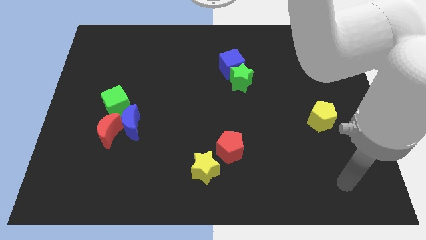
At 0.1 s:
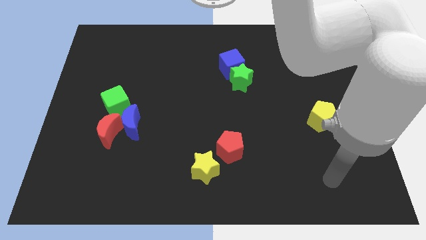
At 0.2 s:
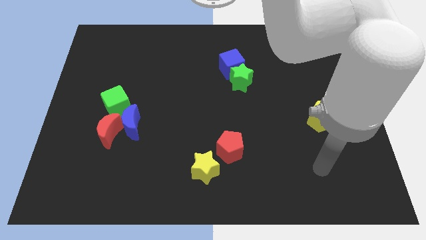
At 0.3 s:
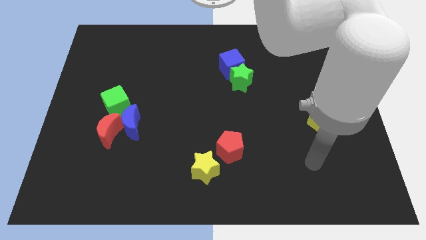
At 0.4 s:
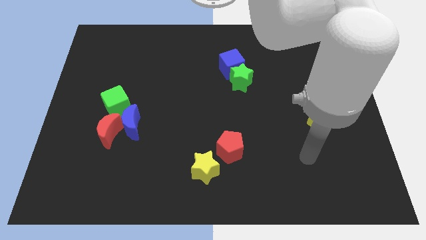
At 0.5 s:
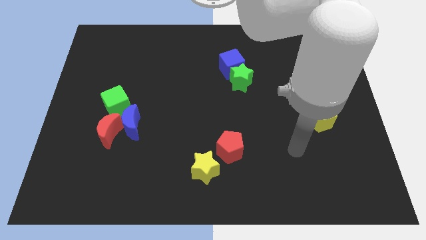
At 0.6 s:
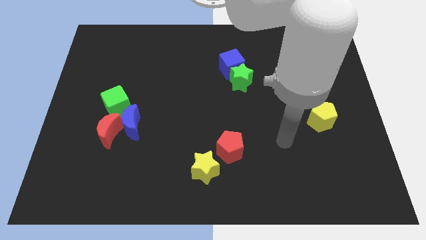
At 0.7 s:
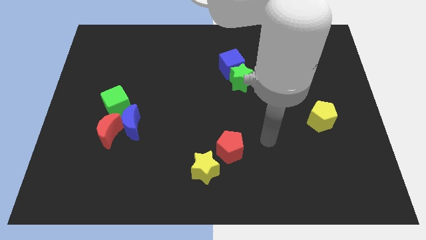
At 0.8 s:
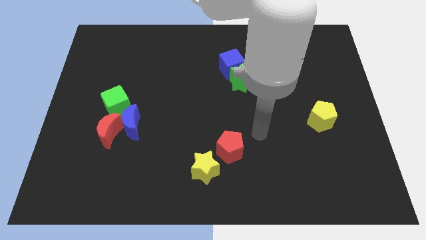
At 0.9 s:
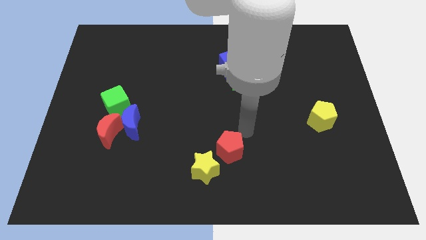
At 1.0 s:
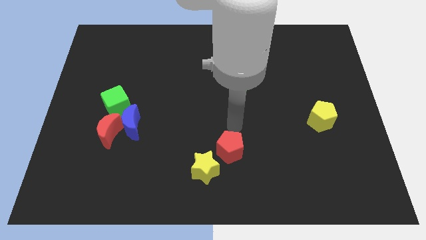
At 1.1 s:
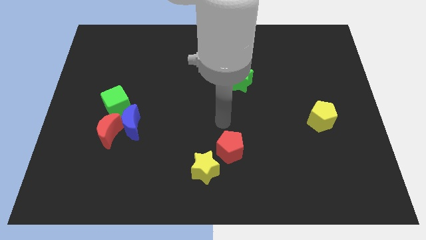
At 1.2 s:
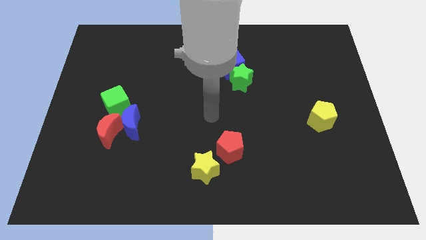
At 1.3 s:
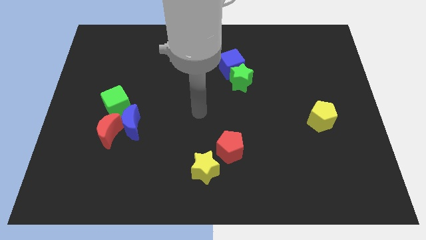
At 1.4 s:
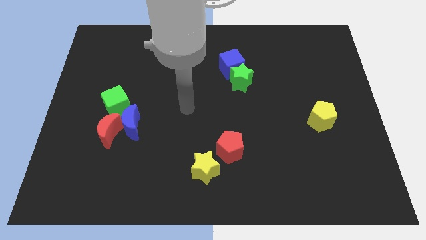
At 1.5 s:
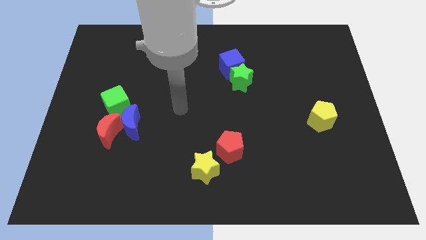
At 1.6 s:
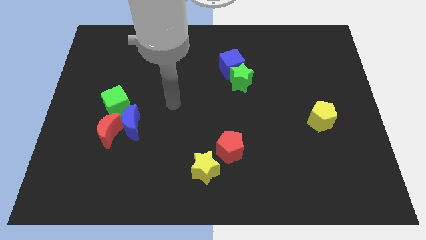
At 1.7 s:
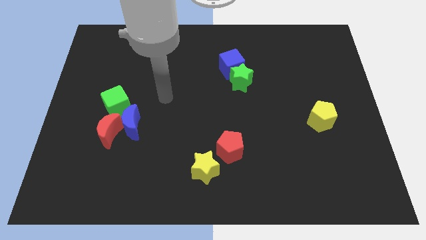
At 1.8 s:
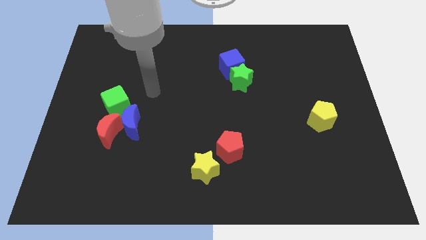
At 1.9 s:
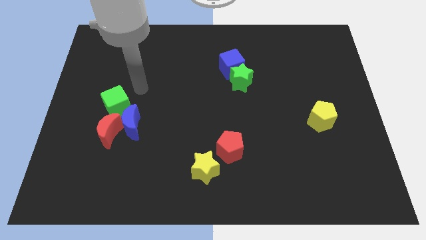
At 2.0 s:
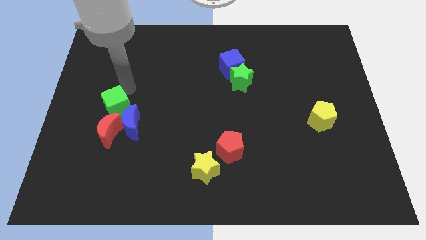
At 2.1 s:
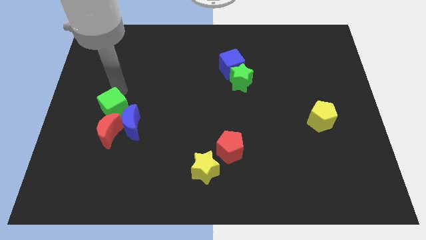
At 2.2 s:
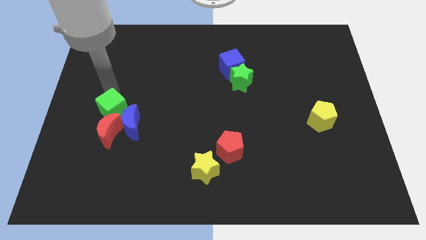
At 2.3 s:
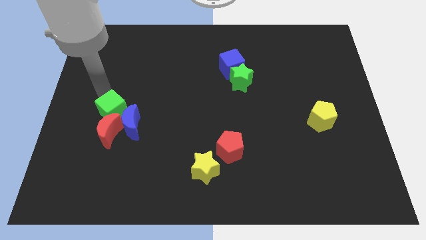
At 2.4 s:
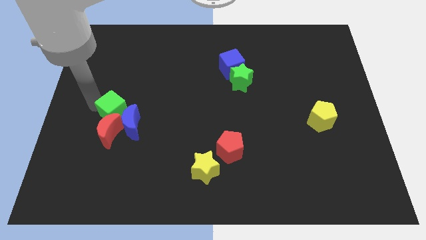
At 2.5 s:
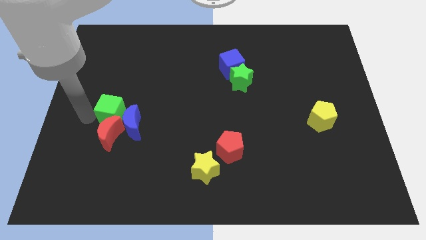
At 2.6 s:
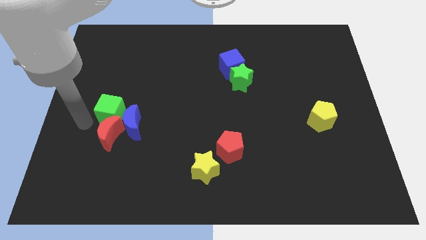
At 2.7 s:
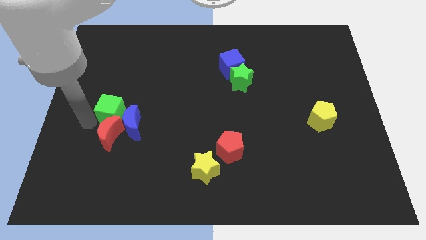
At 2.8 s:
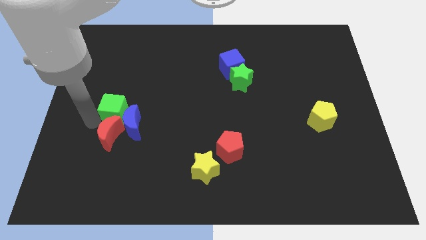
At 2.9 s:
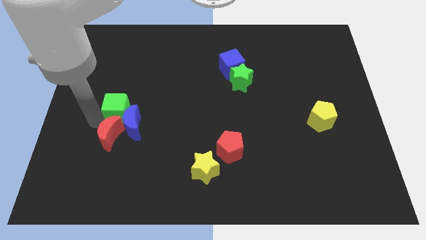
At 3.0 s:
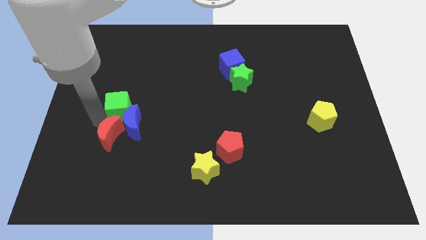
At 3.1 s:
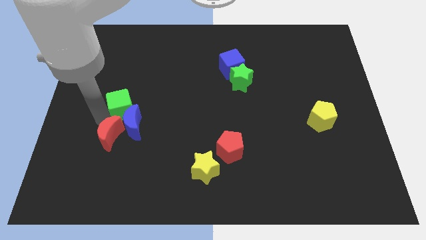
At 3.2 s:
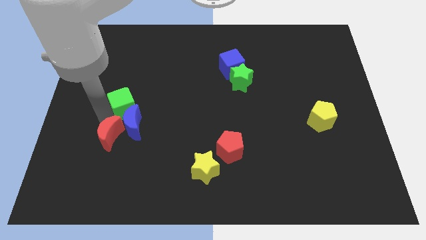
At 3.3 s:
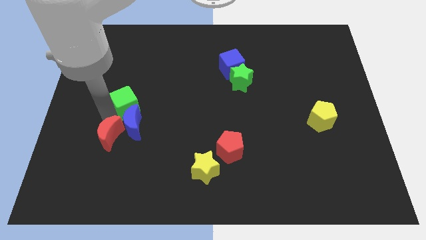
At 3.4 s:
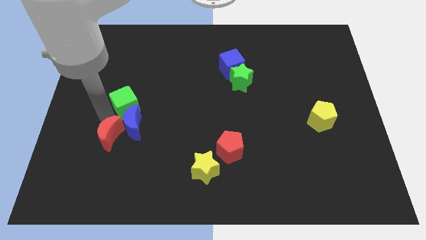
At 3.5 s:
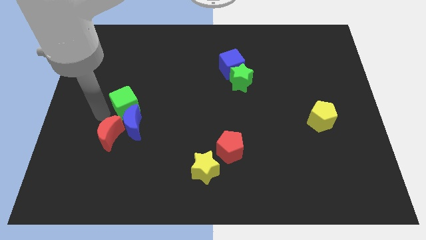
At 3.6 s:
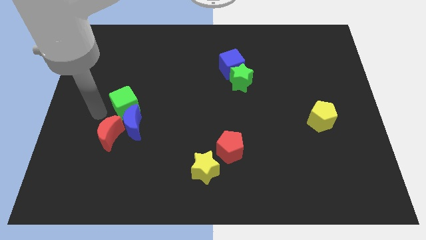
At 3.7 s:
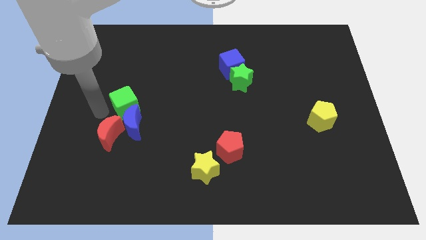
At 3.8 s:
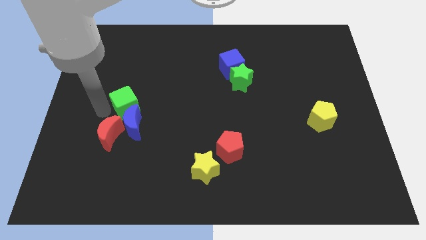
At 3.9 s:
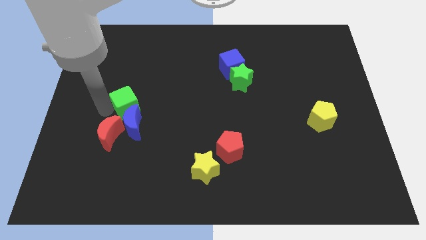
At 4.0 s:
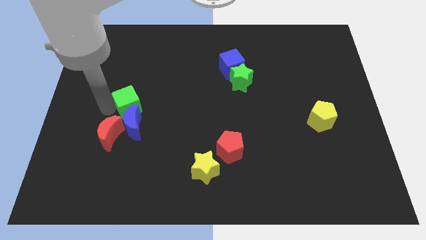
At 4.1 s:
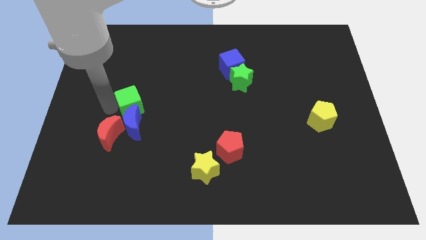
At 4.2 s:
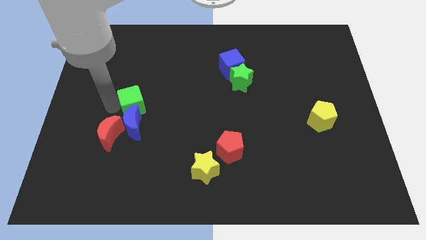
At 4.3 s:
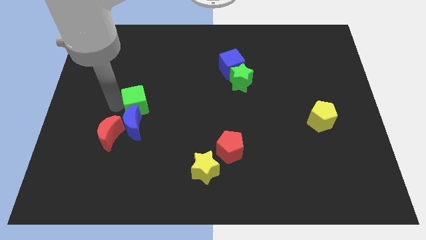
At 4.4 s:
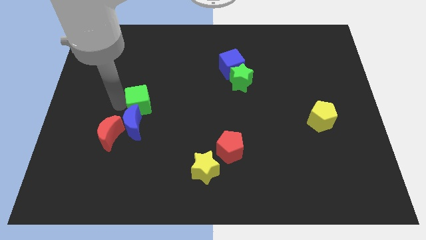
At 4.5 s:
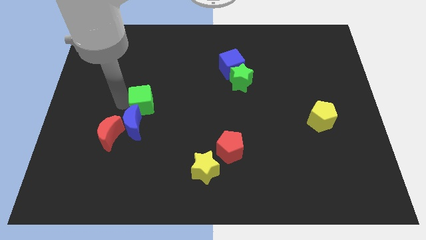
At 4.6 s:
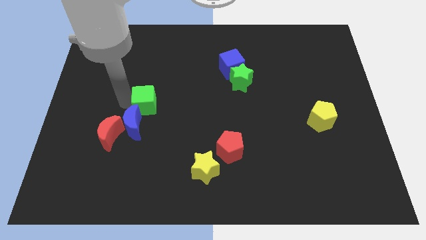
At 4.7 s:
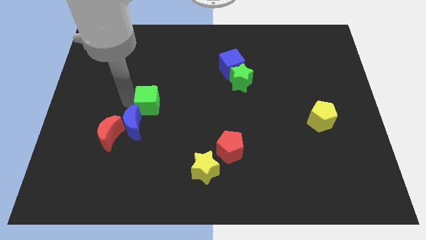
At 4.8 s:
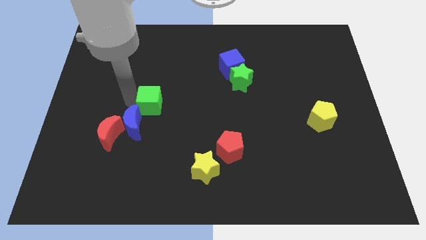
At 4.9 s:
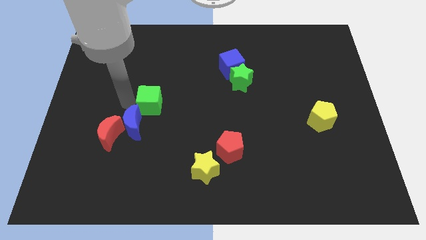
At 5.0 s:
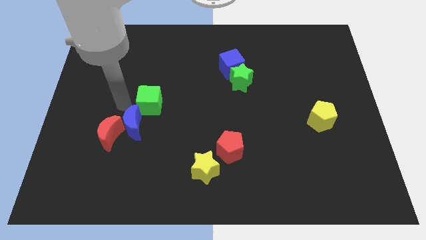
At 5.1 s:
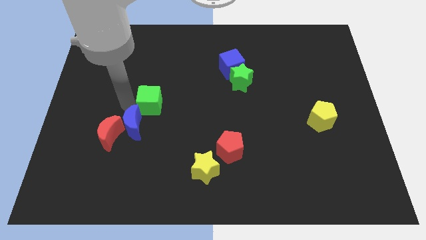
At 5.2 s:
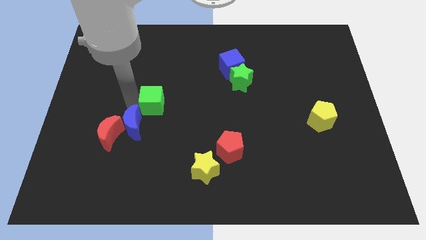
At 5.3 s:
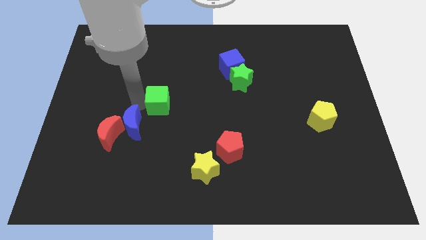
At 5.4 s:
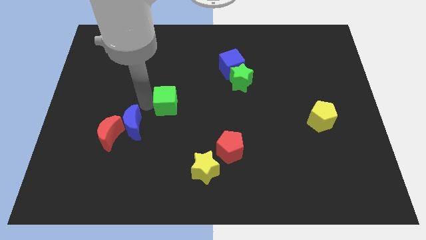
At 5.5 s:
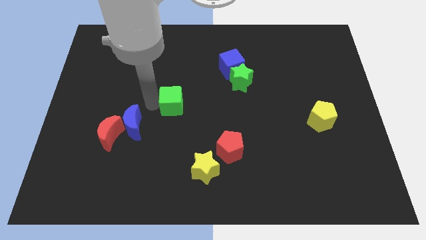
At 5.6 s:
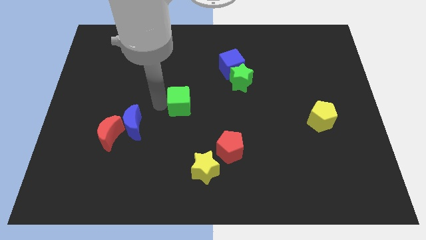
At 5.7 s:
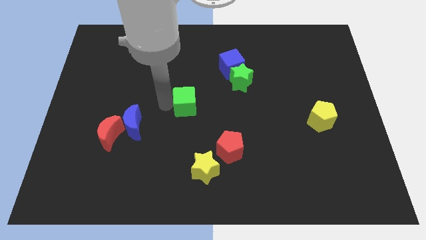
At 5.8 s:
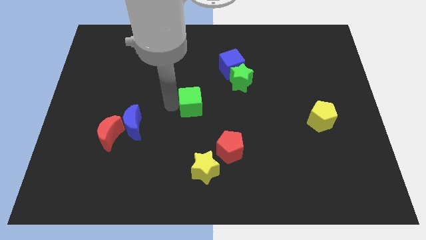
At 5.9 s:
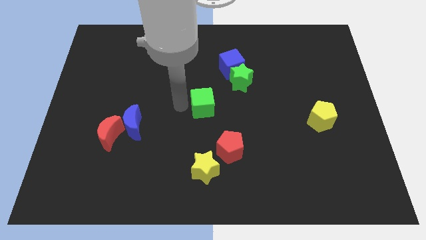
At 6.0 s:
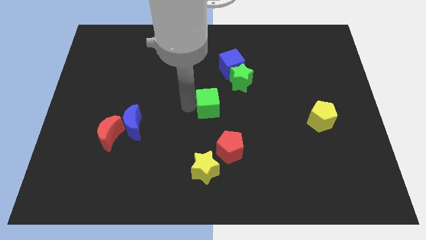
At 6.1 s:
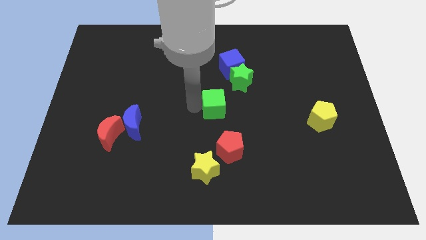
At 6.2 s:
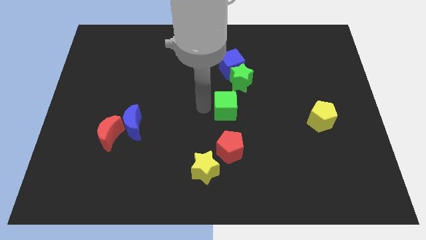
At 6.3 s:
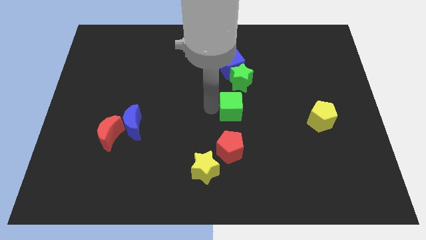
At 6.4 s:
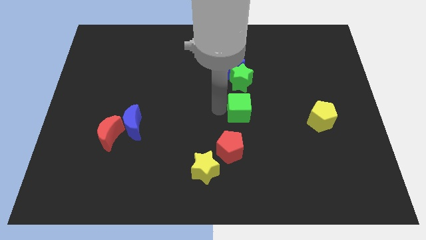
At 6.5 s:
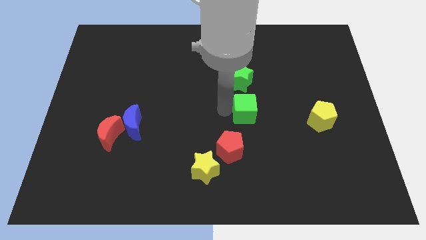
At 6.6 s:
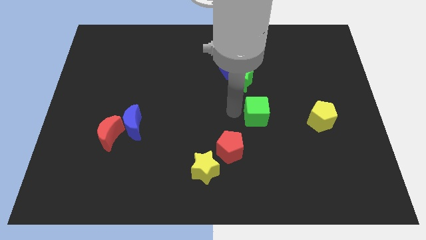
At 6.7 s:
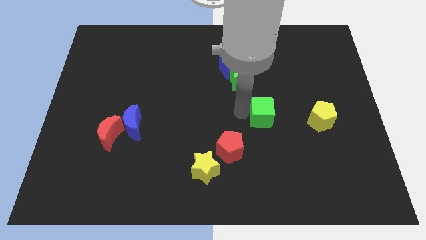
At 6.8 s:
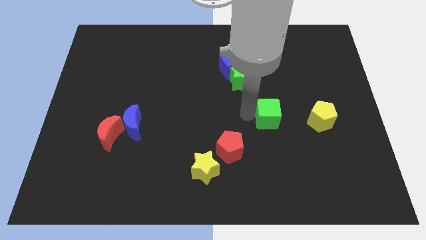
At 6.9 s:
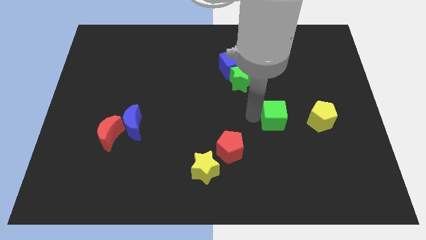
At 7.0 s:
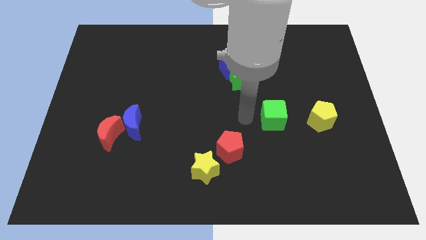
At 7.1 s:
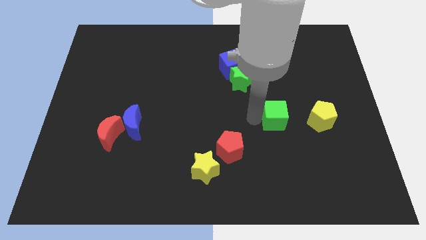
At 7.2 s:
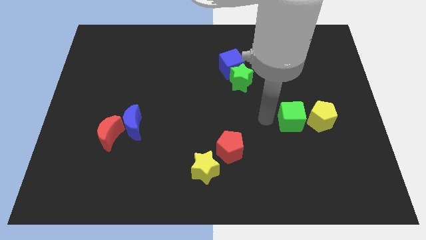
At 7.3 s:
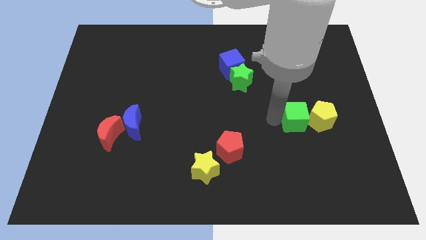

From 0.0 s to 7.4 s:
move the green cube to the yellow pentagon

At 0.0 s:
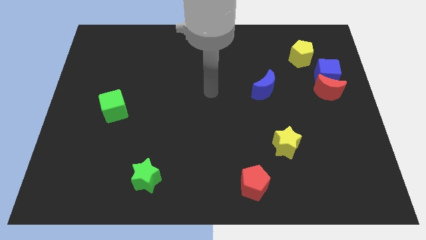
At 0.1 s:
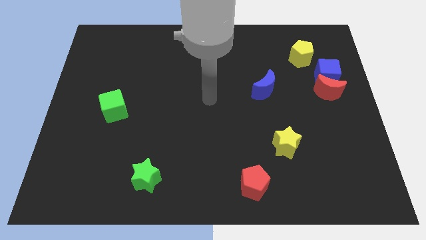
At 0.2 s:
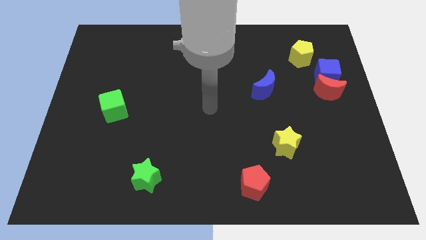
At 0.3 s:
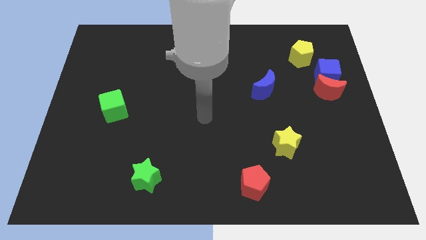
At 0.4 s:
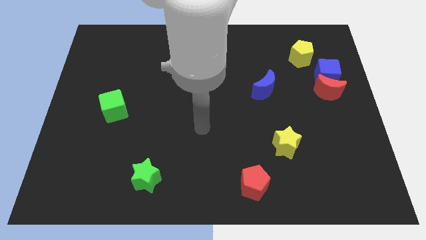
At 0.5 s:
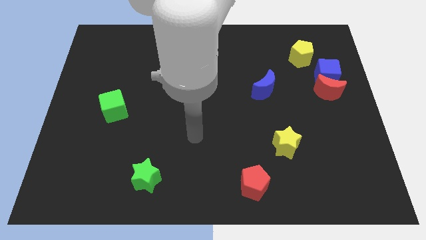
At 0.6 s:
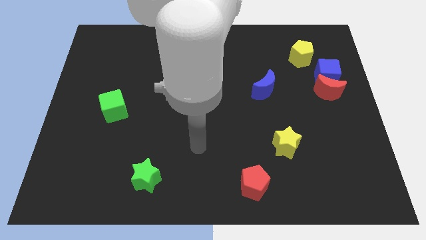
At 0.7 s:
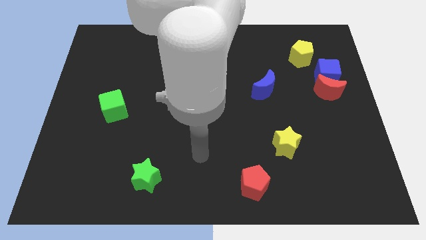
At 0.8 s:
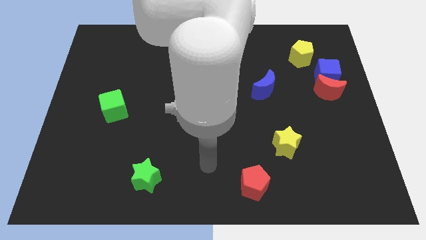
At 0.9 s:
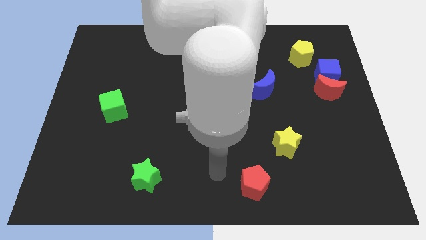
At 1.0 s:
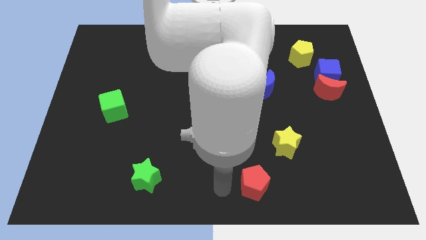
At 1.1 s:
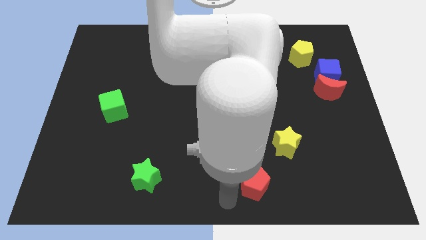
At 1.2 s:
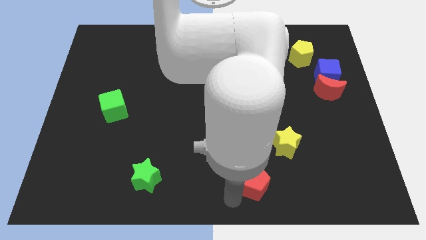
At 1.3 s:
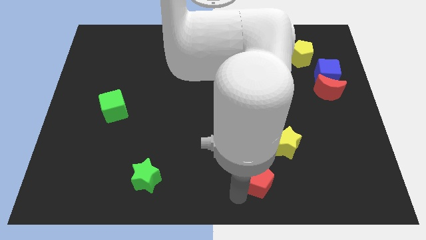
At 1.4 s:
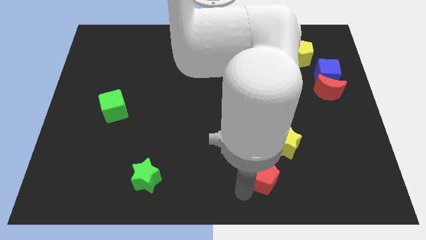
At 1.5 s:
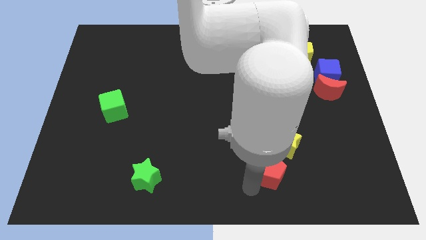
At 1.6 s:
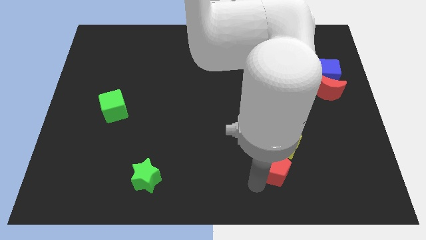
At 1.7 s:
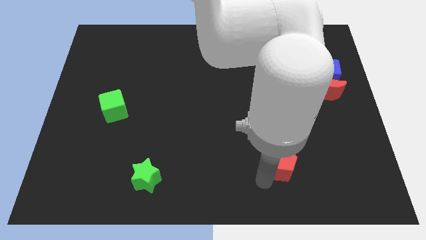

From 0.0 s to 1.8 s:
put the red pentagon close to the yellow star
